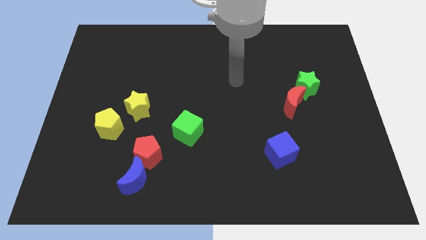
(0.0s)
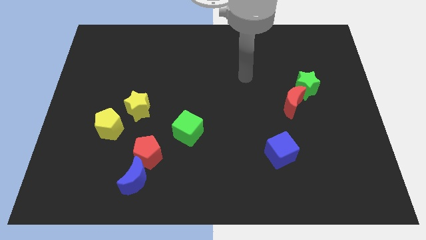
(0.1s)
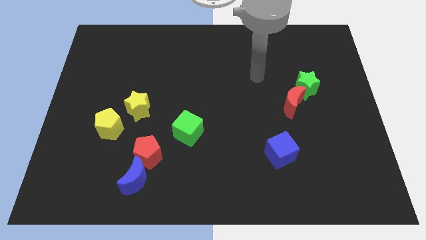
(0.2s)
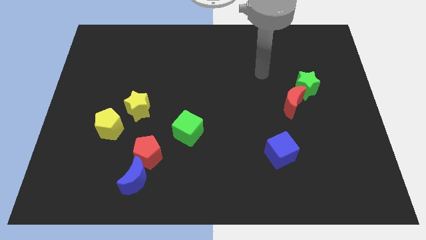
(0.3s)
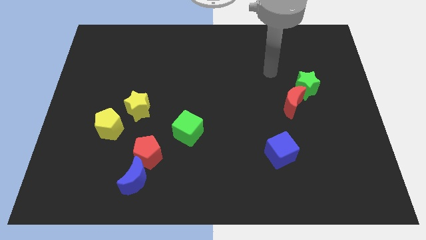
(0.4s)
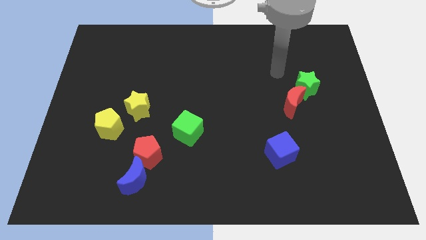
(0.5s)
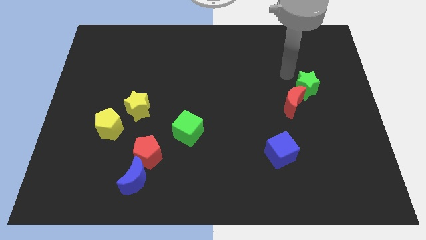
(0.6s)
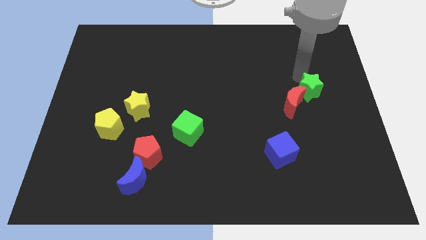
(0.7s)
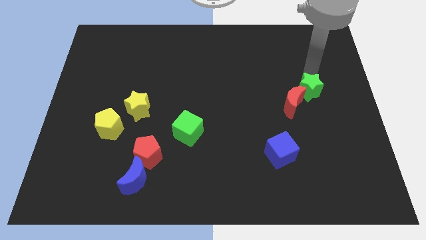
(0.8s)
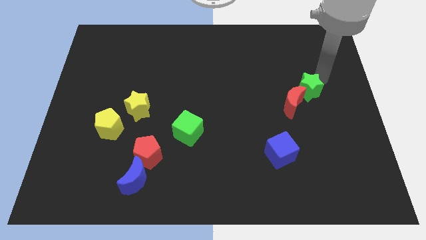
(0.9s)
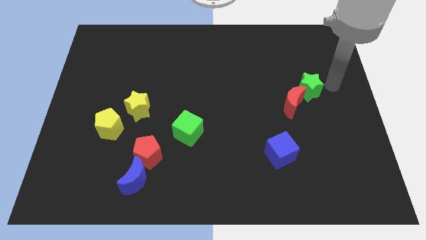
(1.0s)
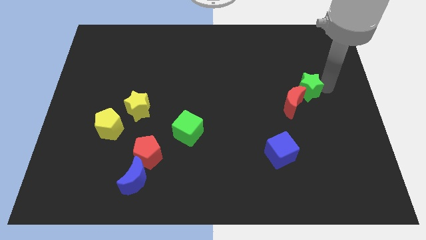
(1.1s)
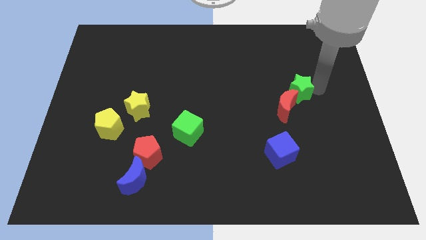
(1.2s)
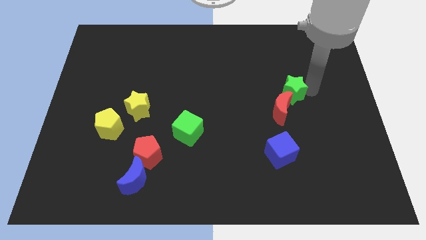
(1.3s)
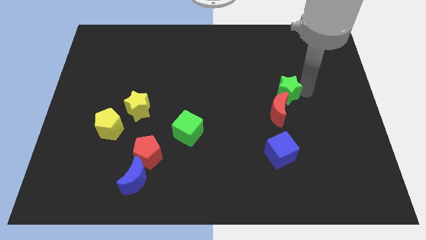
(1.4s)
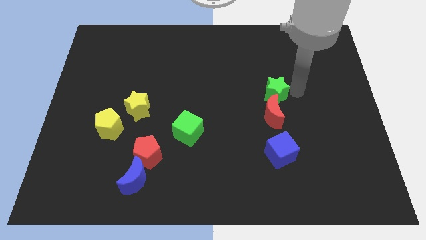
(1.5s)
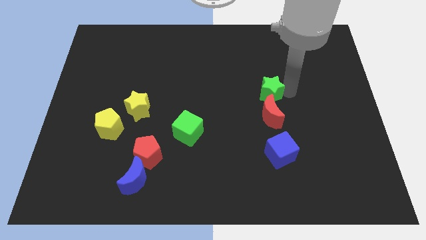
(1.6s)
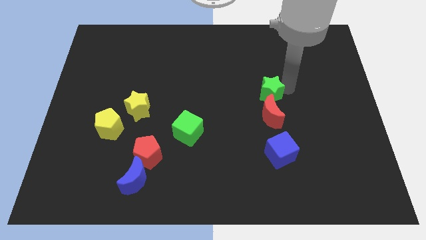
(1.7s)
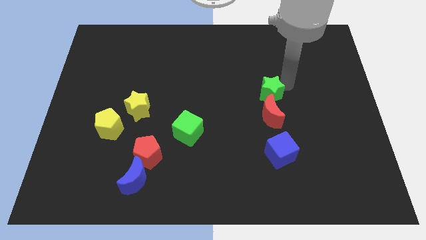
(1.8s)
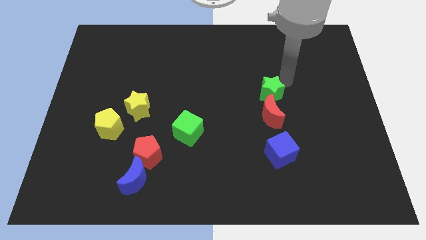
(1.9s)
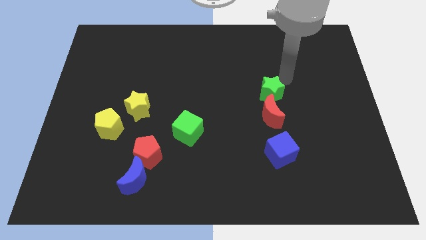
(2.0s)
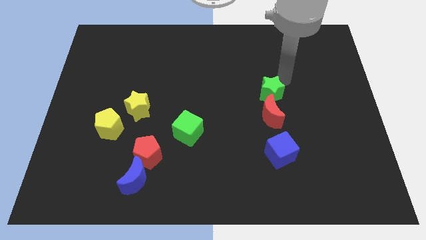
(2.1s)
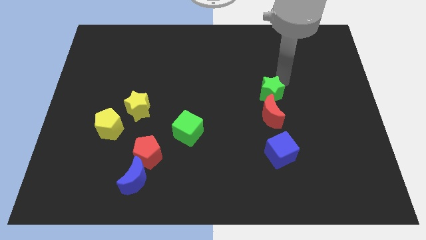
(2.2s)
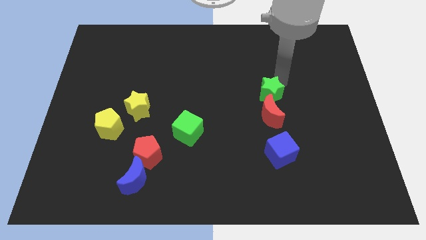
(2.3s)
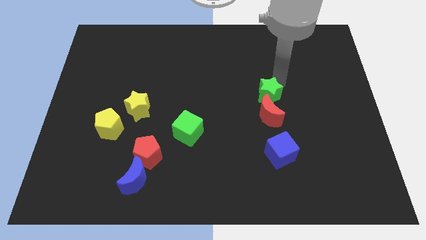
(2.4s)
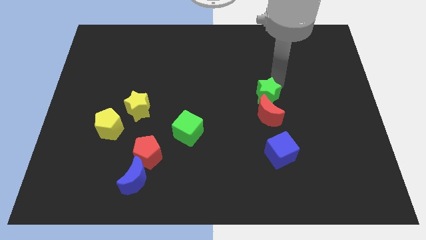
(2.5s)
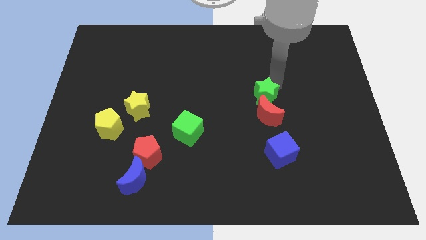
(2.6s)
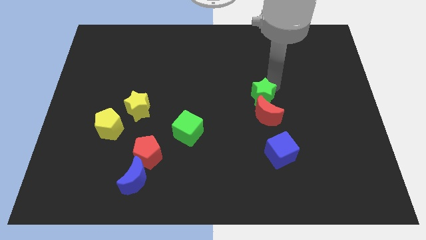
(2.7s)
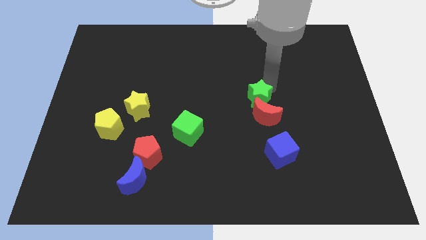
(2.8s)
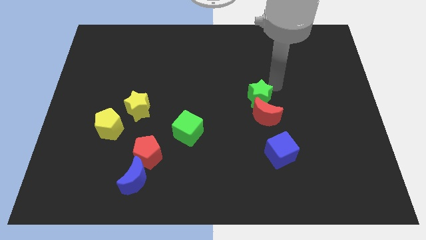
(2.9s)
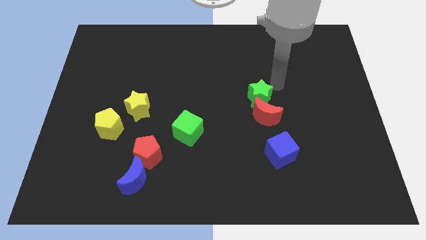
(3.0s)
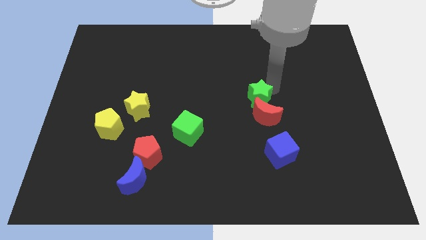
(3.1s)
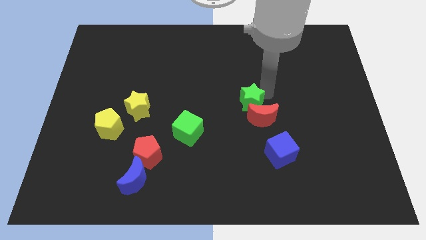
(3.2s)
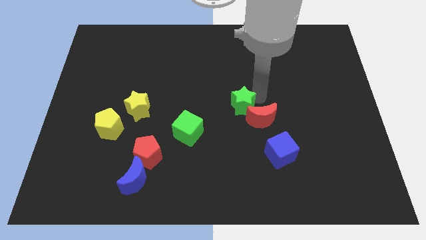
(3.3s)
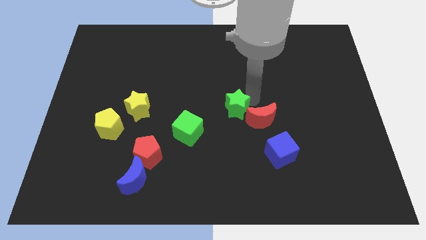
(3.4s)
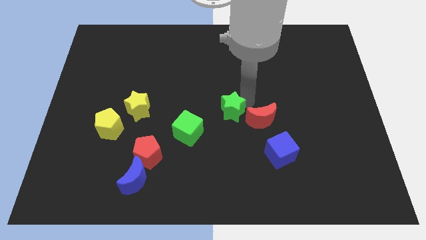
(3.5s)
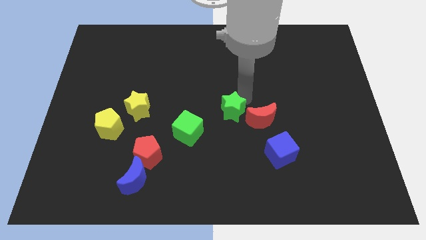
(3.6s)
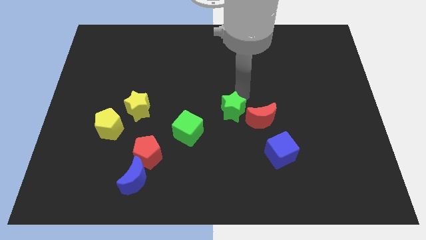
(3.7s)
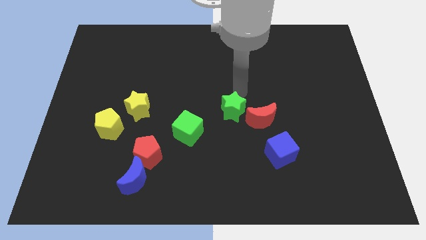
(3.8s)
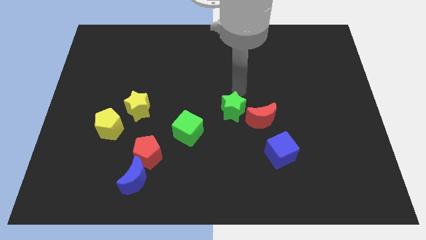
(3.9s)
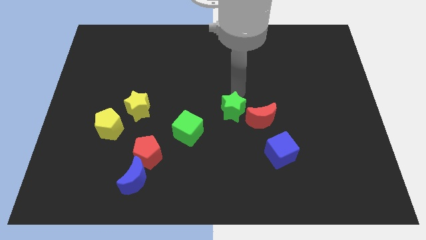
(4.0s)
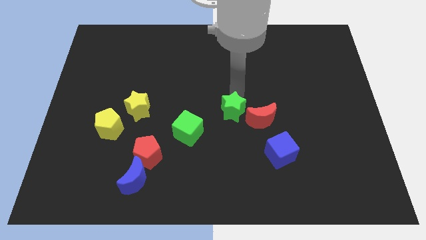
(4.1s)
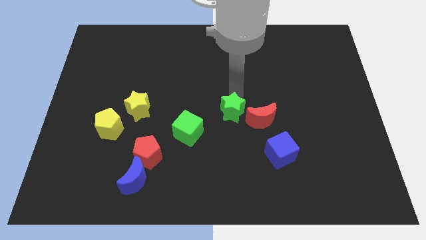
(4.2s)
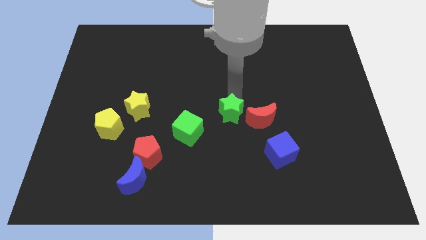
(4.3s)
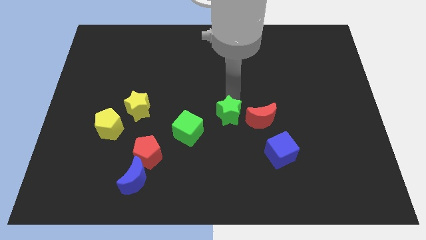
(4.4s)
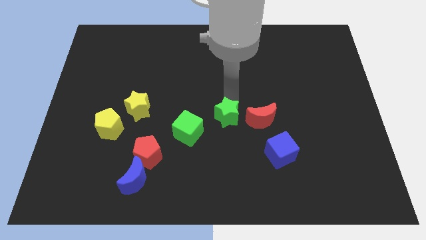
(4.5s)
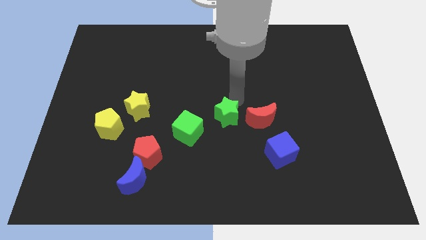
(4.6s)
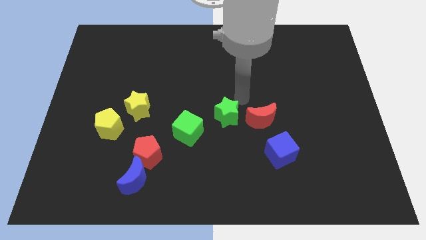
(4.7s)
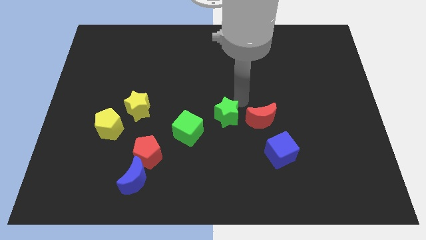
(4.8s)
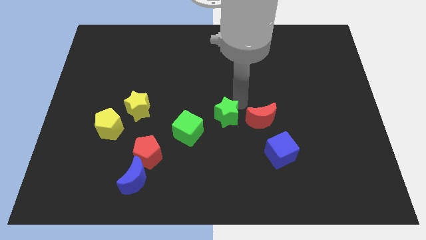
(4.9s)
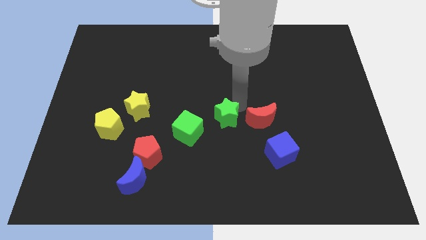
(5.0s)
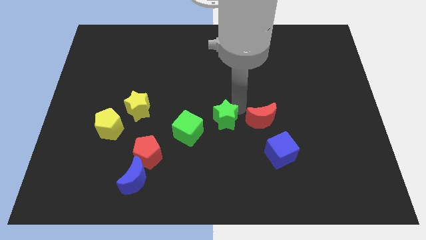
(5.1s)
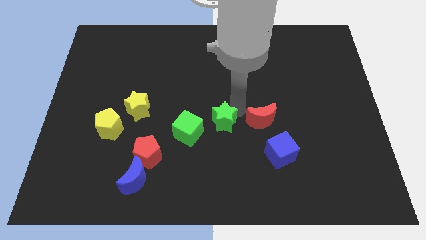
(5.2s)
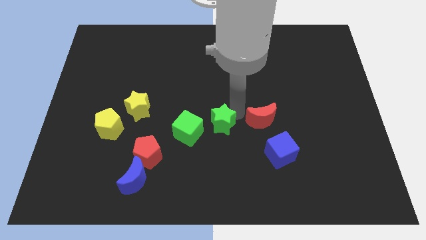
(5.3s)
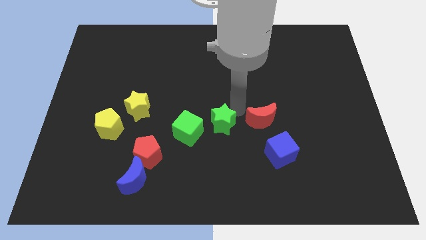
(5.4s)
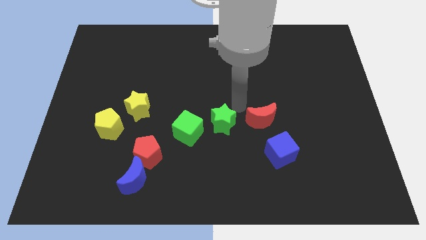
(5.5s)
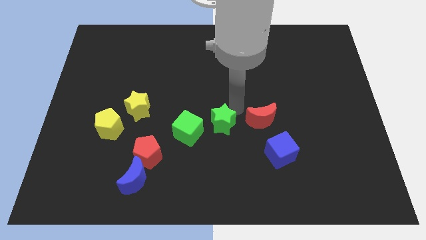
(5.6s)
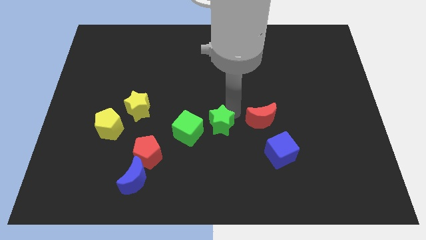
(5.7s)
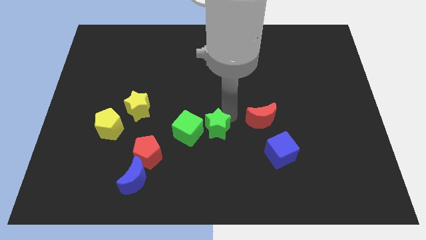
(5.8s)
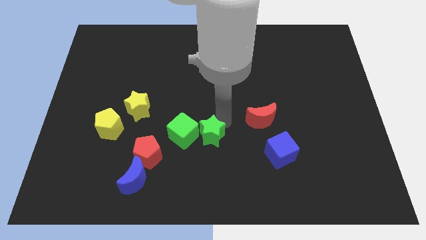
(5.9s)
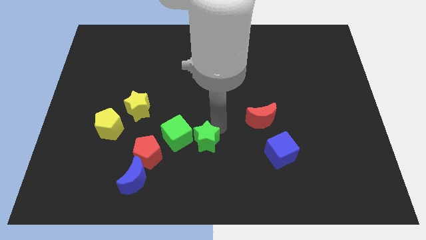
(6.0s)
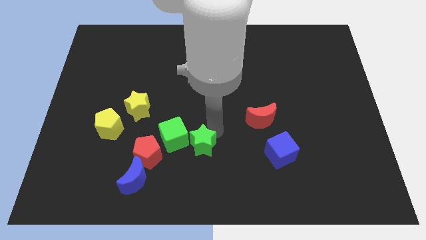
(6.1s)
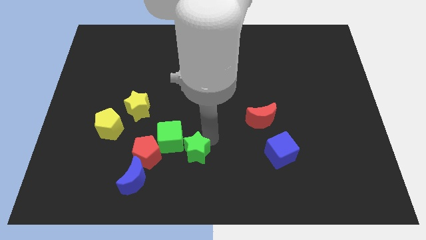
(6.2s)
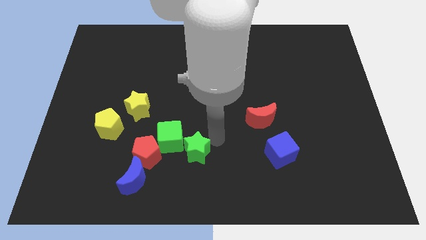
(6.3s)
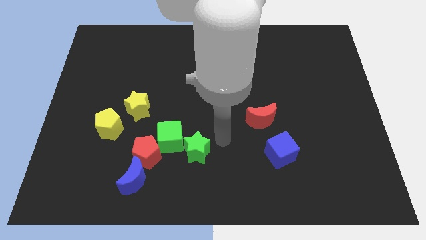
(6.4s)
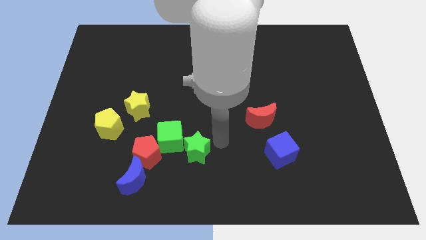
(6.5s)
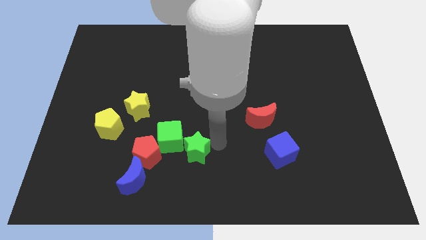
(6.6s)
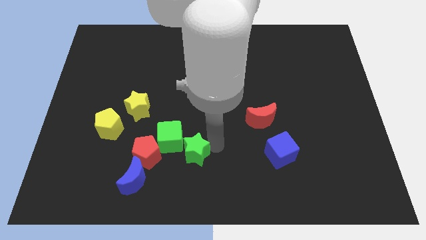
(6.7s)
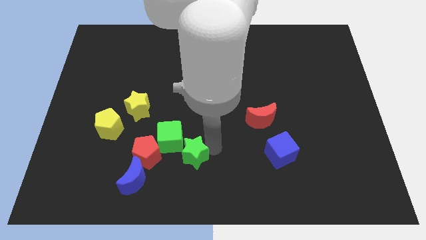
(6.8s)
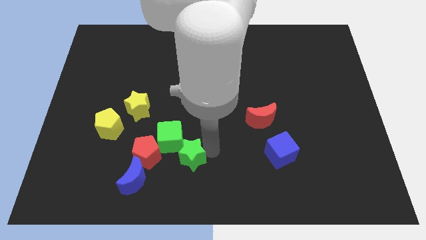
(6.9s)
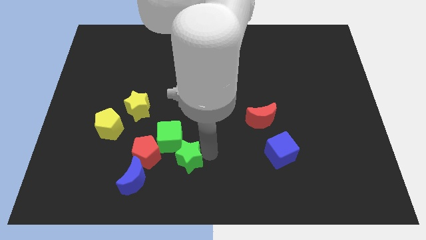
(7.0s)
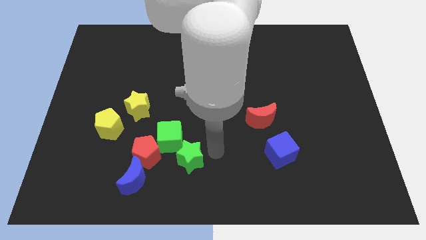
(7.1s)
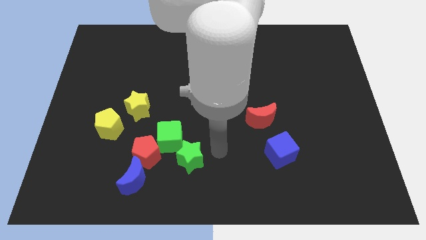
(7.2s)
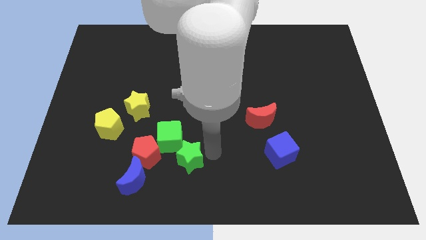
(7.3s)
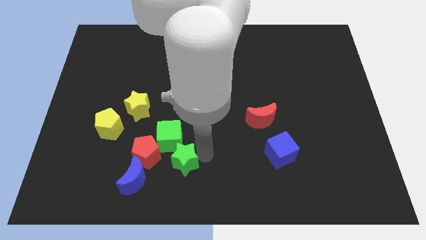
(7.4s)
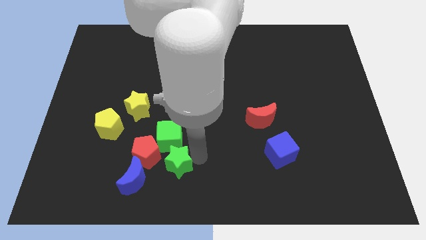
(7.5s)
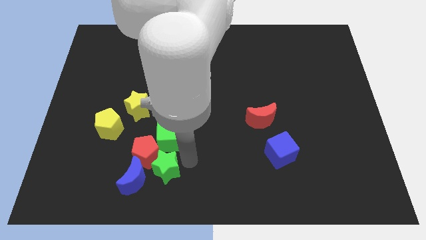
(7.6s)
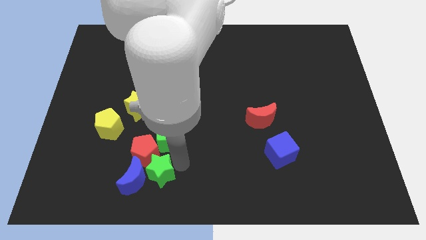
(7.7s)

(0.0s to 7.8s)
put the green star towards the blue moon
